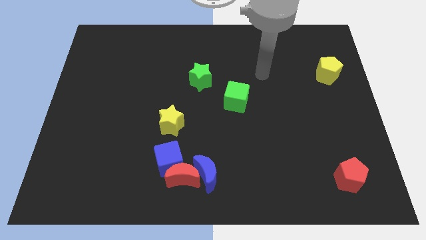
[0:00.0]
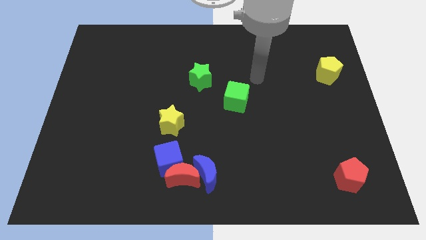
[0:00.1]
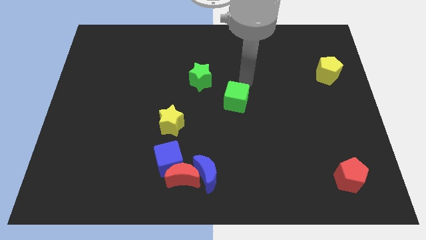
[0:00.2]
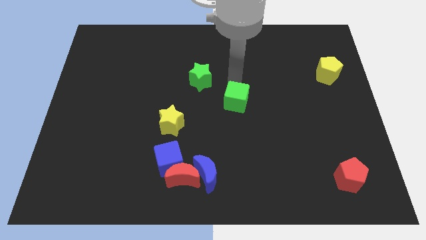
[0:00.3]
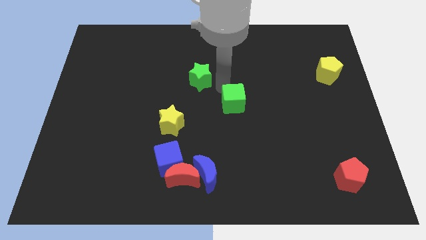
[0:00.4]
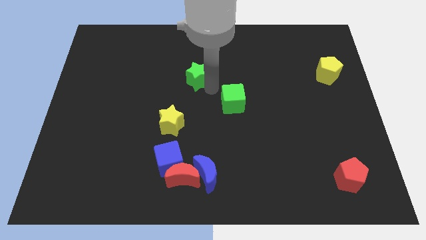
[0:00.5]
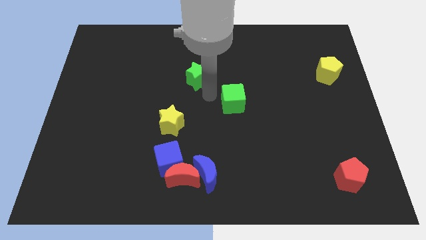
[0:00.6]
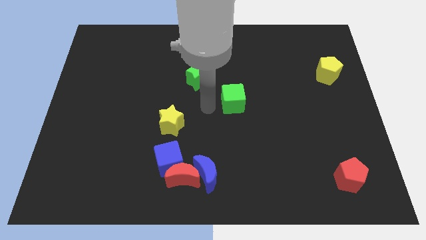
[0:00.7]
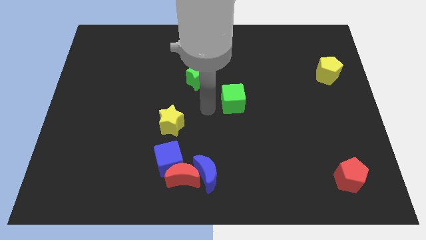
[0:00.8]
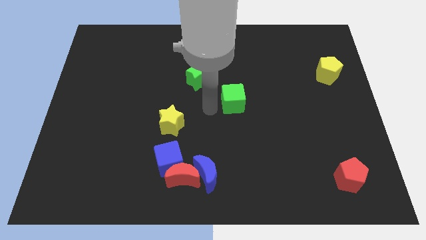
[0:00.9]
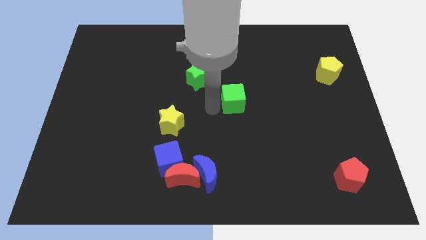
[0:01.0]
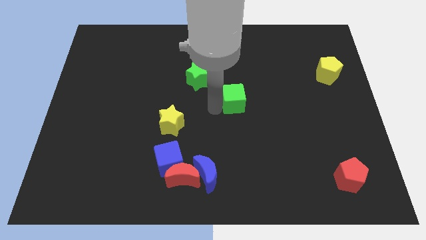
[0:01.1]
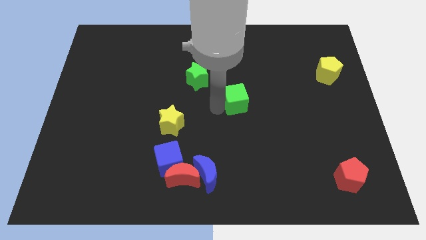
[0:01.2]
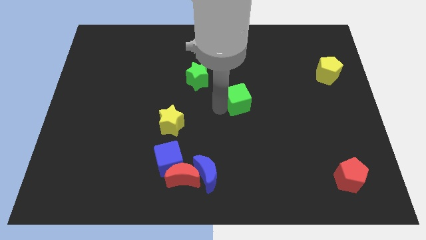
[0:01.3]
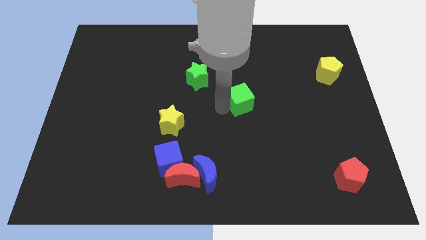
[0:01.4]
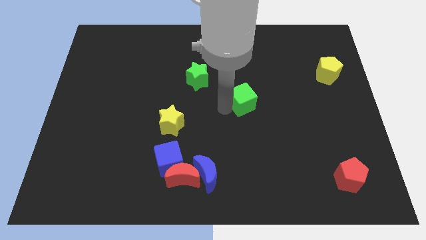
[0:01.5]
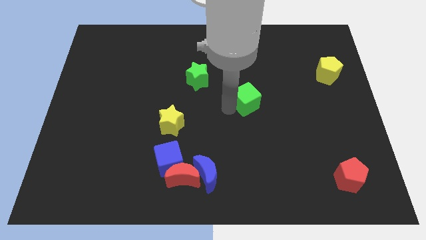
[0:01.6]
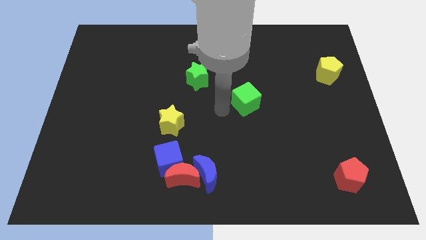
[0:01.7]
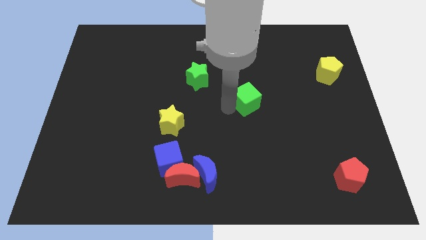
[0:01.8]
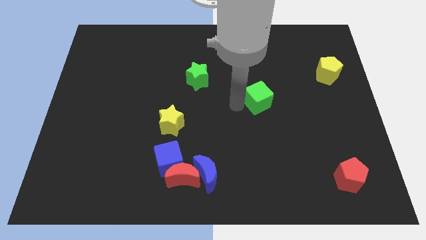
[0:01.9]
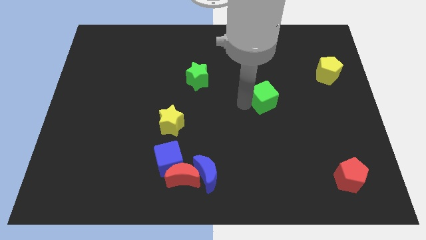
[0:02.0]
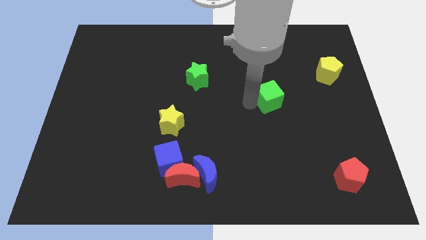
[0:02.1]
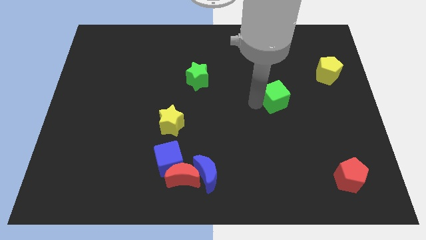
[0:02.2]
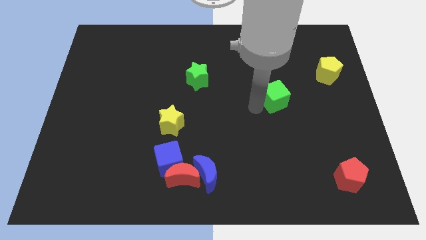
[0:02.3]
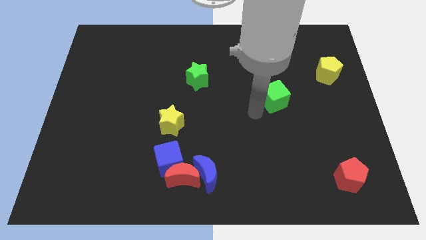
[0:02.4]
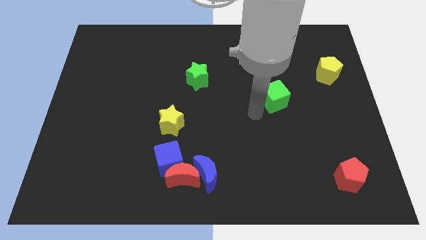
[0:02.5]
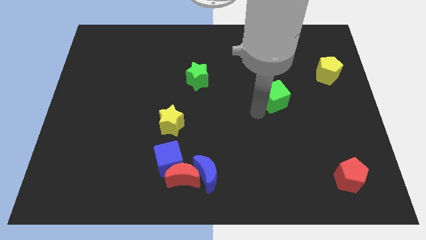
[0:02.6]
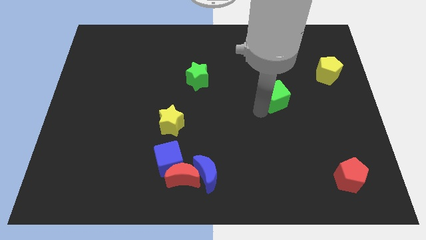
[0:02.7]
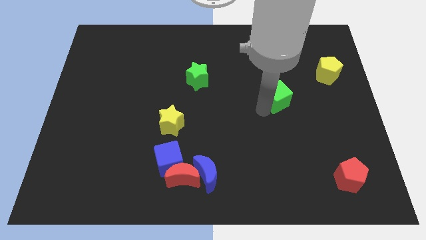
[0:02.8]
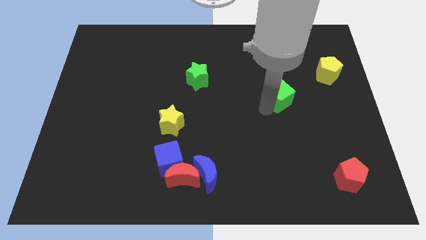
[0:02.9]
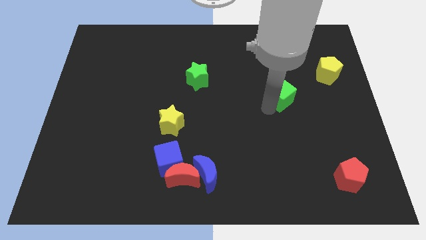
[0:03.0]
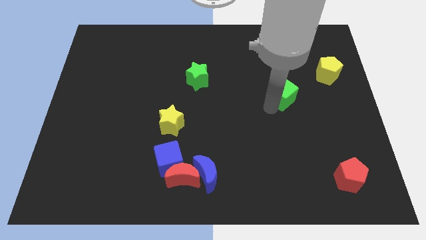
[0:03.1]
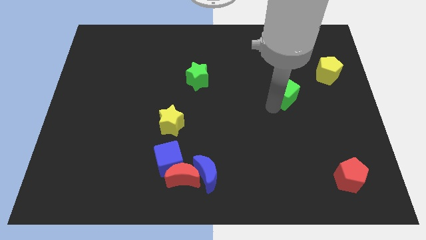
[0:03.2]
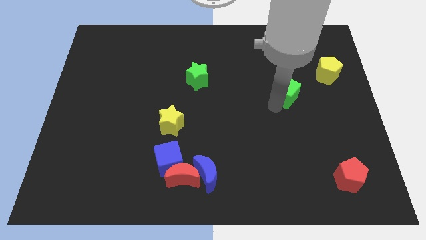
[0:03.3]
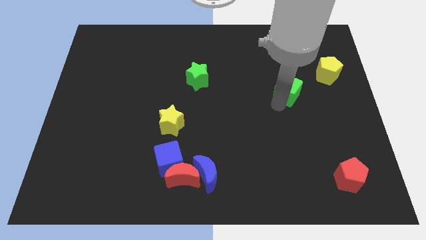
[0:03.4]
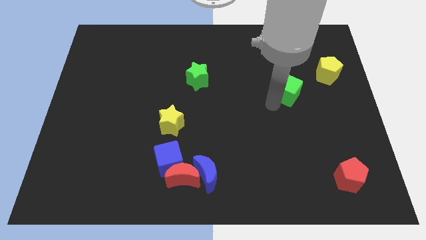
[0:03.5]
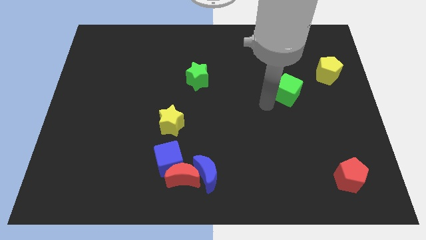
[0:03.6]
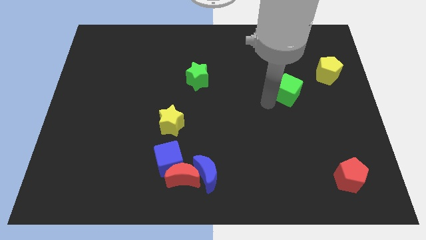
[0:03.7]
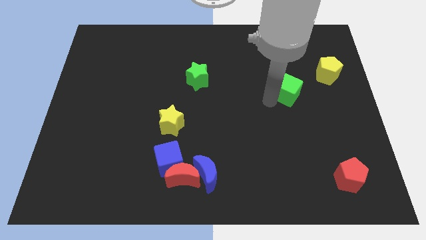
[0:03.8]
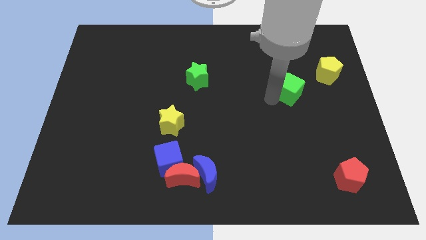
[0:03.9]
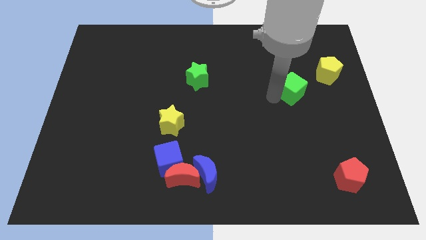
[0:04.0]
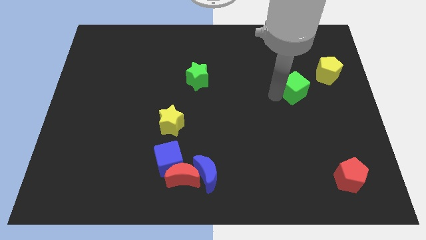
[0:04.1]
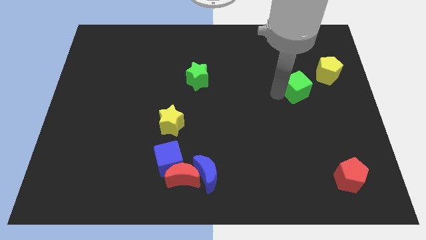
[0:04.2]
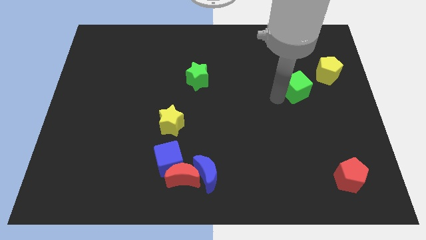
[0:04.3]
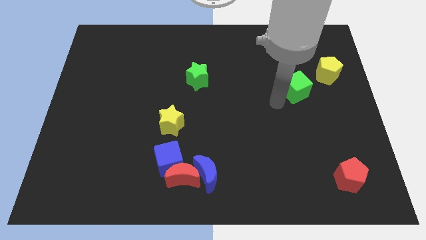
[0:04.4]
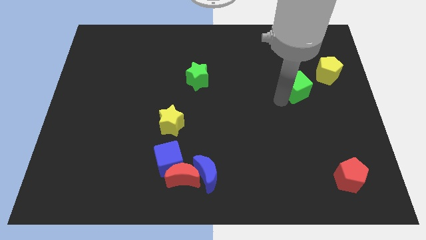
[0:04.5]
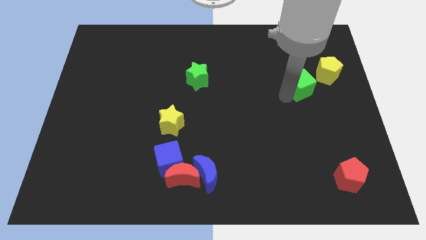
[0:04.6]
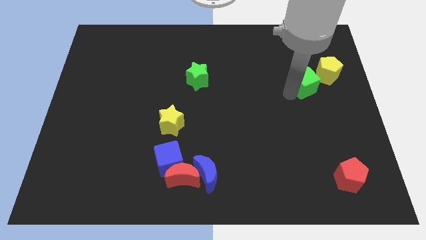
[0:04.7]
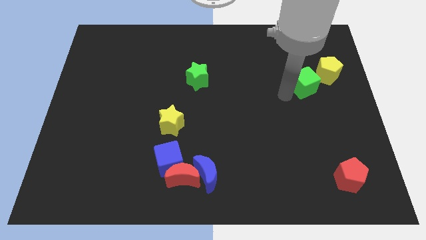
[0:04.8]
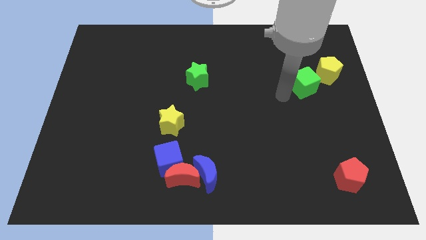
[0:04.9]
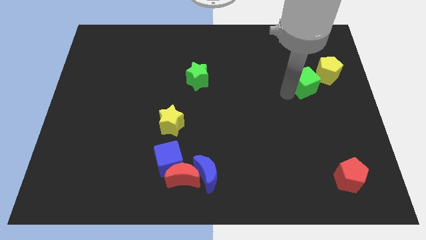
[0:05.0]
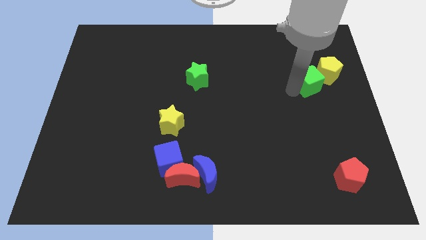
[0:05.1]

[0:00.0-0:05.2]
push the green cube towards the yellow pentagon

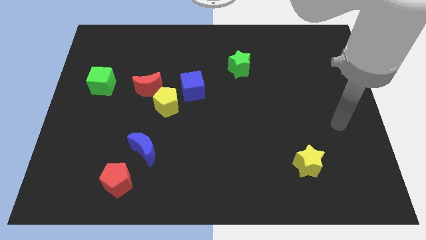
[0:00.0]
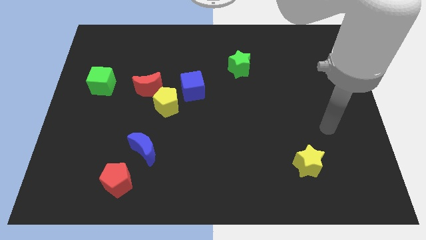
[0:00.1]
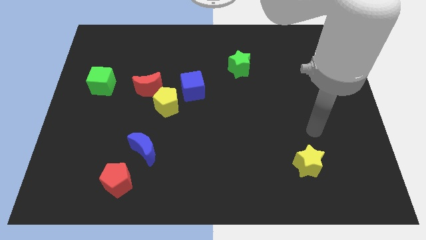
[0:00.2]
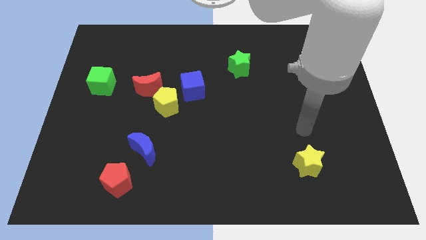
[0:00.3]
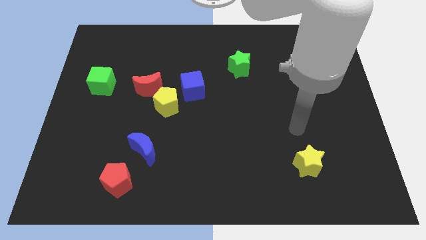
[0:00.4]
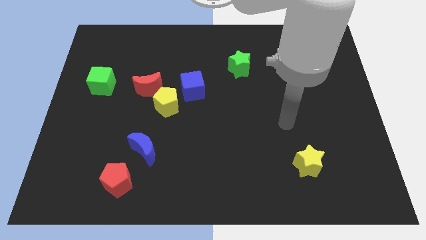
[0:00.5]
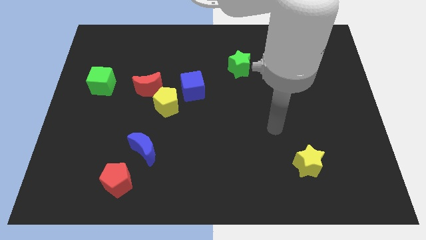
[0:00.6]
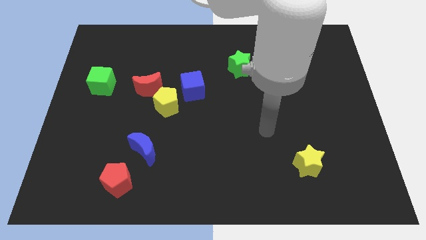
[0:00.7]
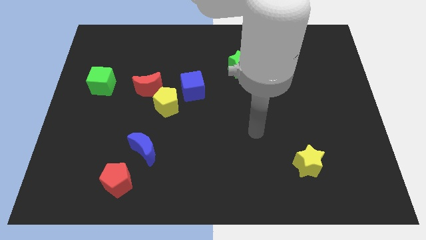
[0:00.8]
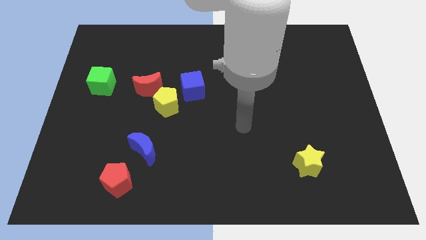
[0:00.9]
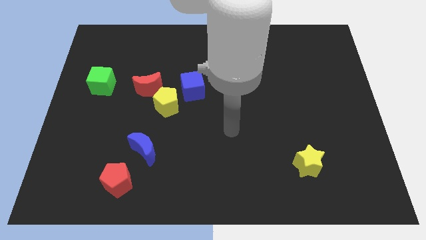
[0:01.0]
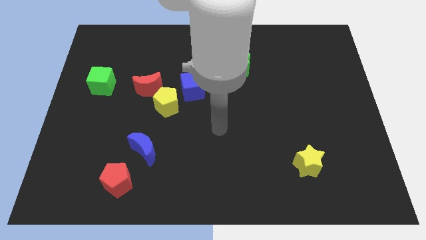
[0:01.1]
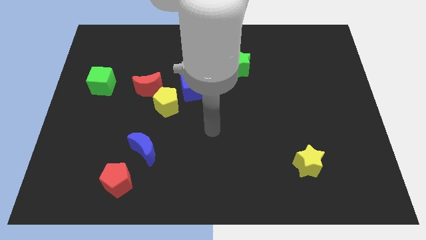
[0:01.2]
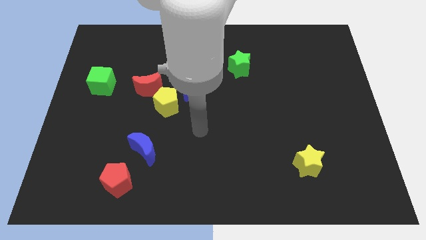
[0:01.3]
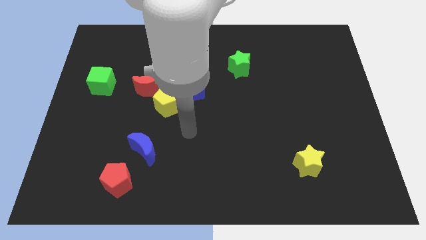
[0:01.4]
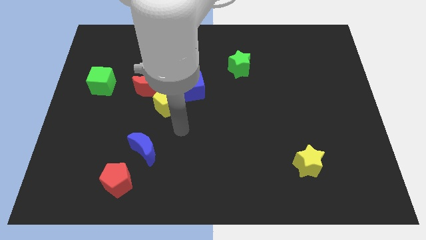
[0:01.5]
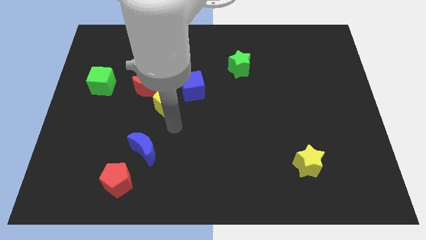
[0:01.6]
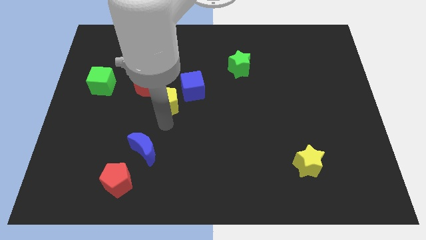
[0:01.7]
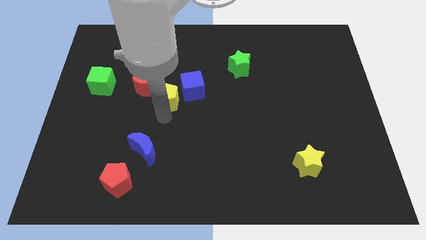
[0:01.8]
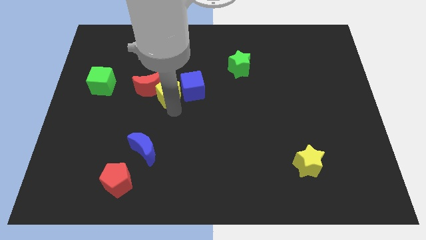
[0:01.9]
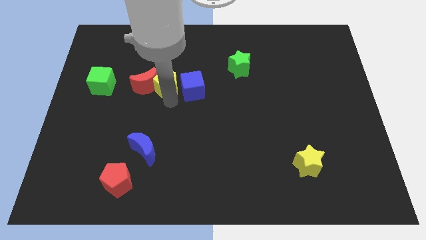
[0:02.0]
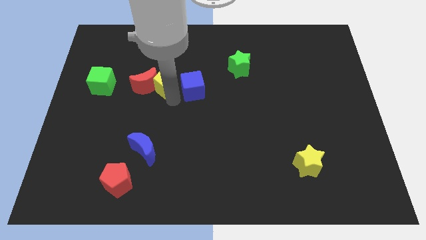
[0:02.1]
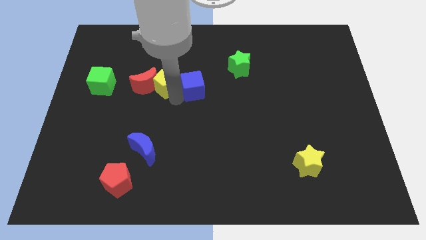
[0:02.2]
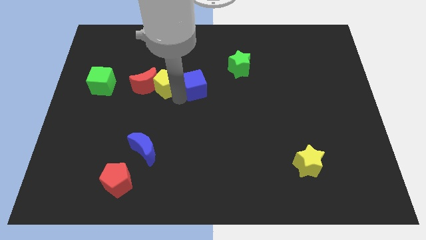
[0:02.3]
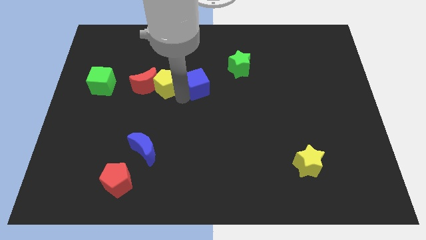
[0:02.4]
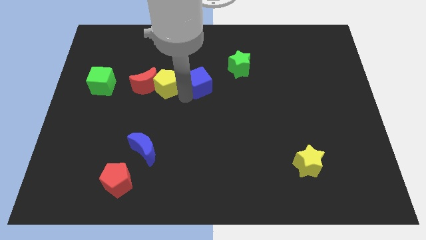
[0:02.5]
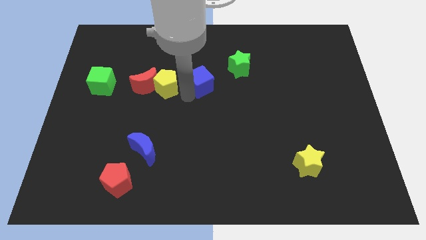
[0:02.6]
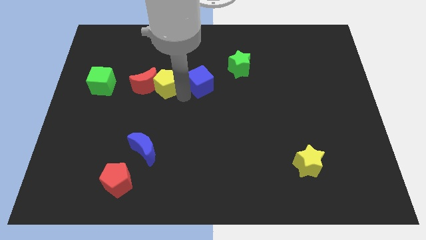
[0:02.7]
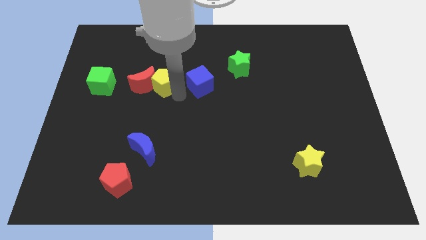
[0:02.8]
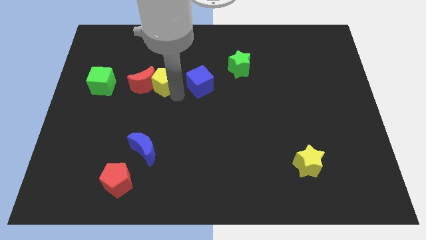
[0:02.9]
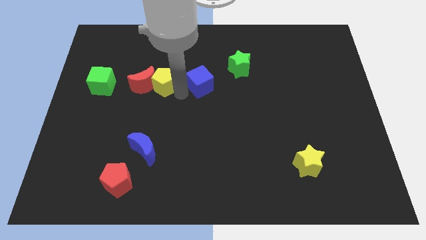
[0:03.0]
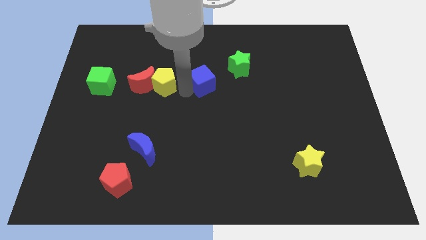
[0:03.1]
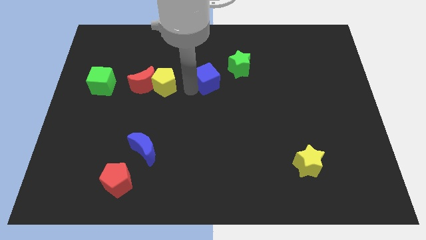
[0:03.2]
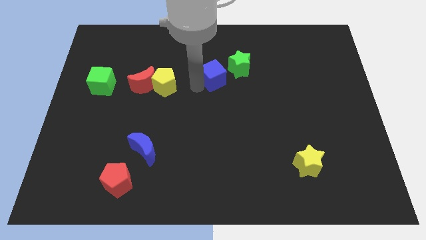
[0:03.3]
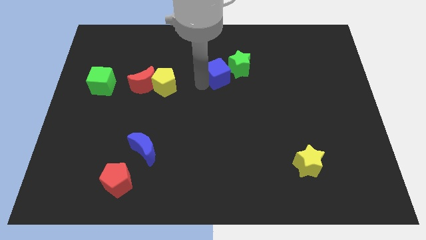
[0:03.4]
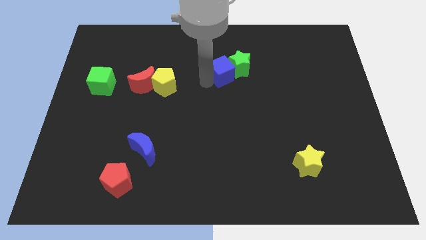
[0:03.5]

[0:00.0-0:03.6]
push the blue cube to the green star
